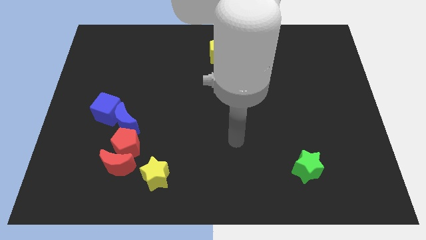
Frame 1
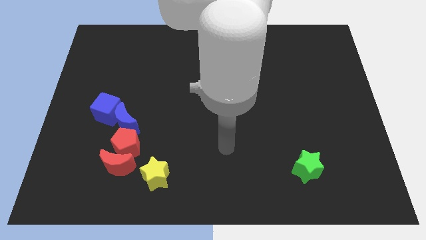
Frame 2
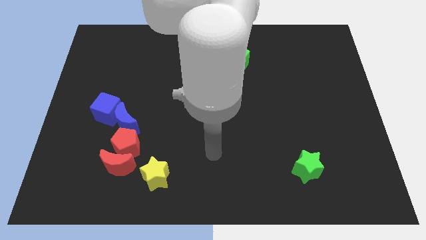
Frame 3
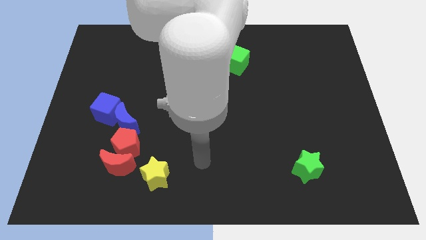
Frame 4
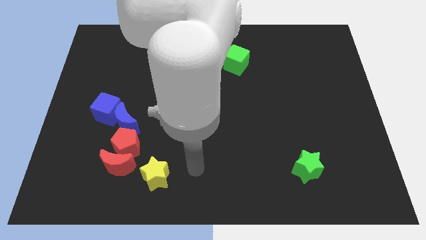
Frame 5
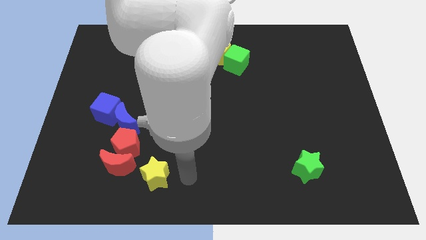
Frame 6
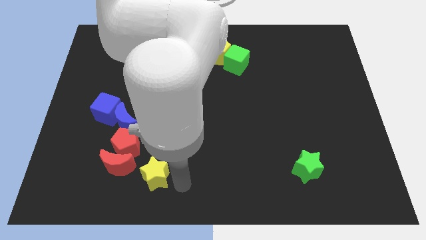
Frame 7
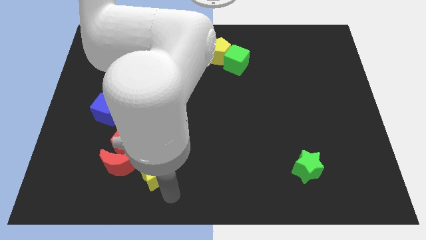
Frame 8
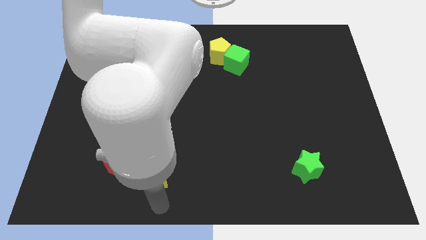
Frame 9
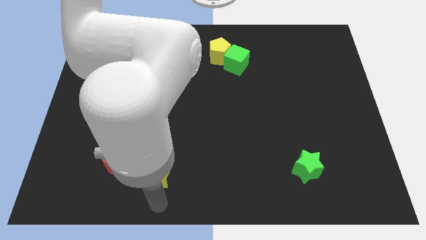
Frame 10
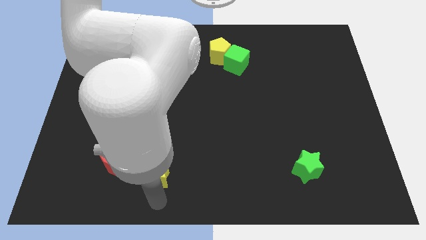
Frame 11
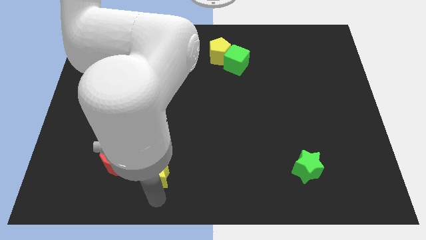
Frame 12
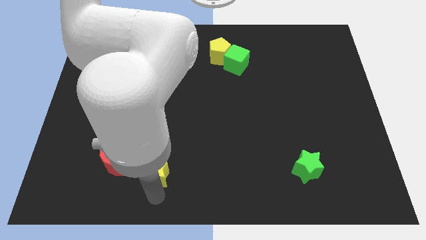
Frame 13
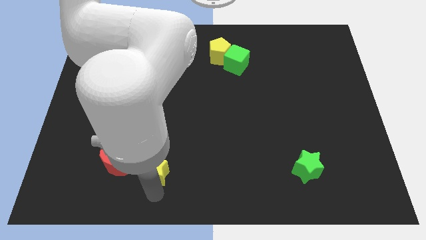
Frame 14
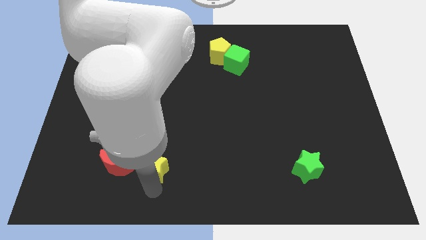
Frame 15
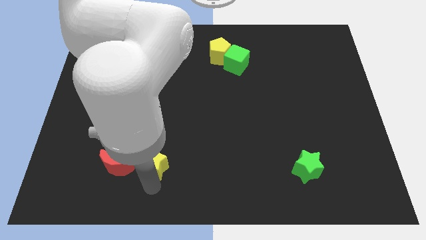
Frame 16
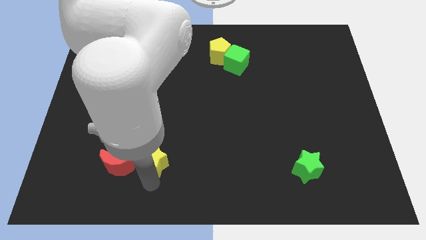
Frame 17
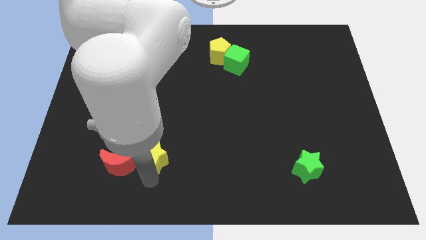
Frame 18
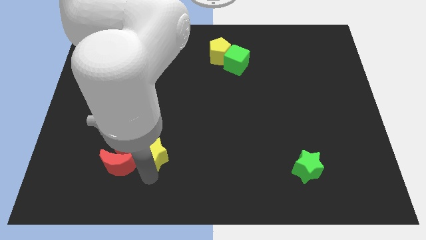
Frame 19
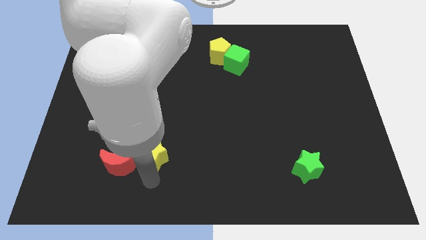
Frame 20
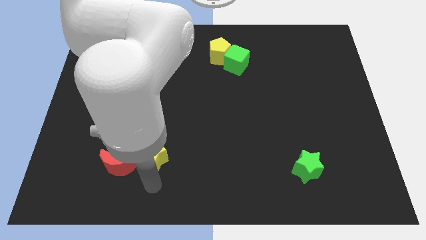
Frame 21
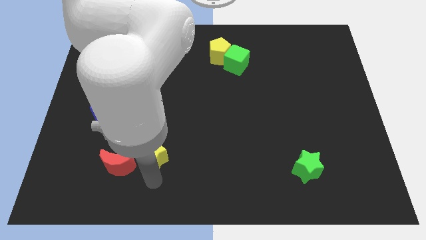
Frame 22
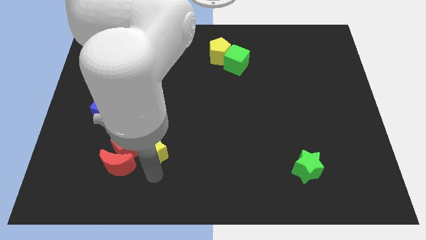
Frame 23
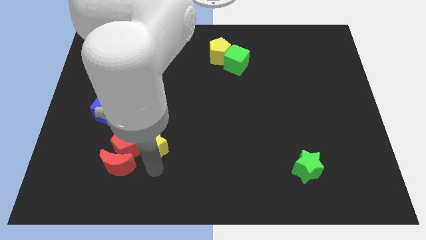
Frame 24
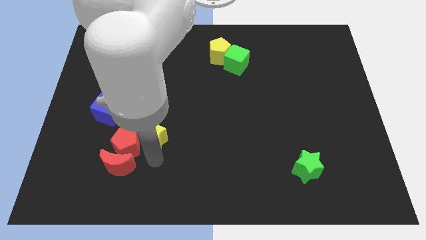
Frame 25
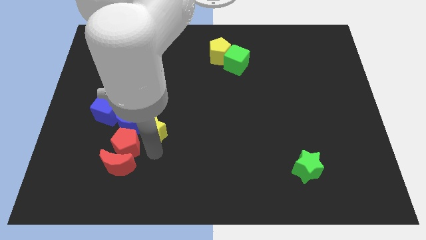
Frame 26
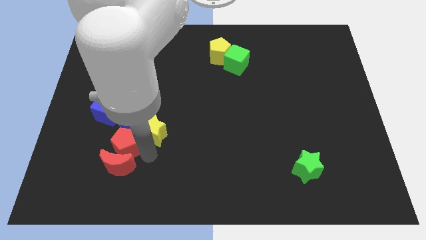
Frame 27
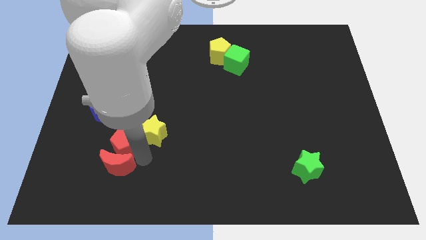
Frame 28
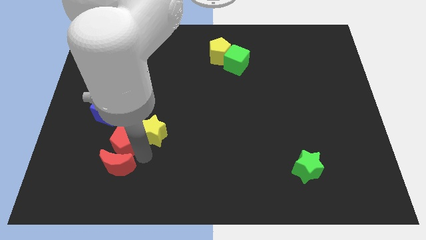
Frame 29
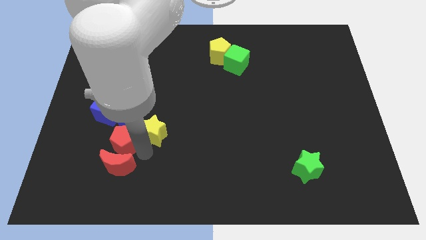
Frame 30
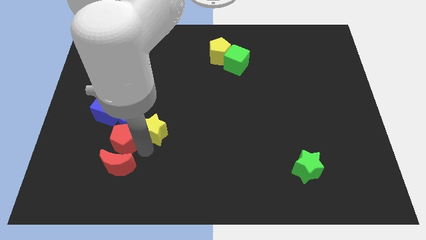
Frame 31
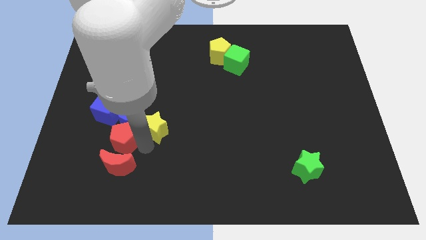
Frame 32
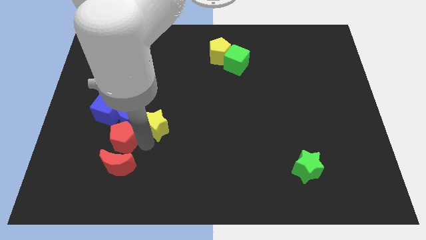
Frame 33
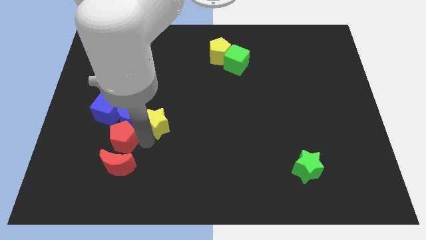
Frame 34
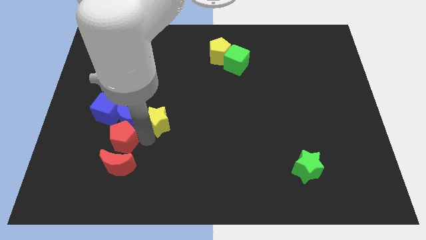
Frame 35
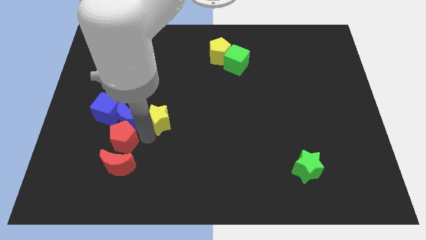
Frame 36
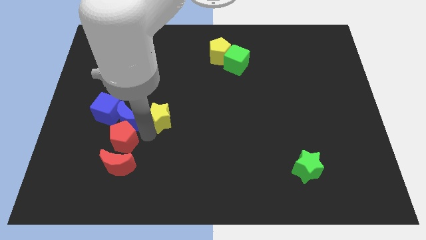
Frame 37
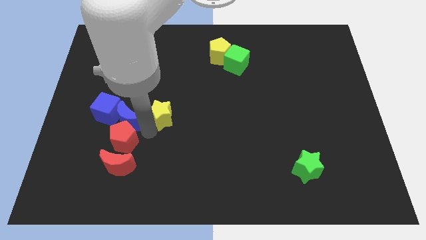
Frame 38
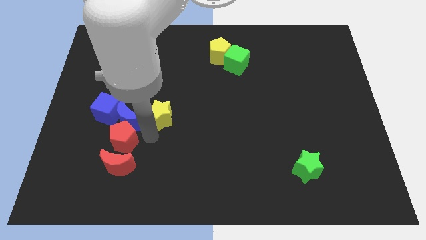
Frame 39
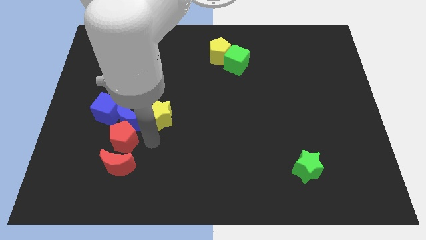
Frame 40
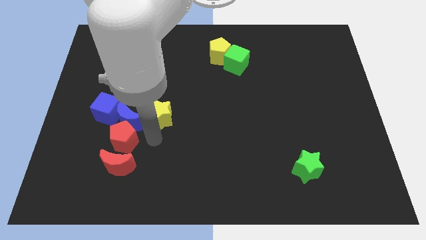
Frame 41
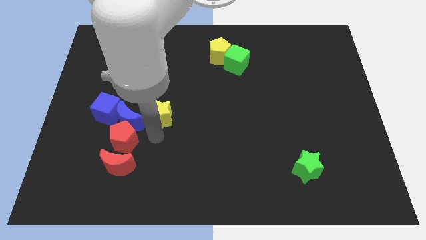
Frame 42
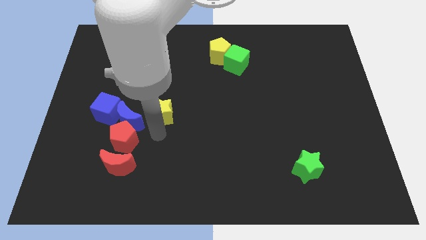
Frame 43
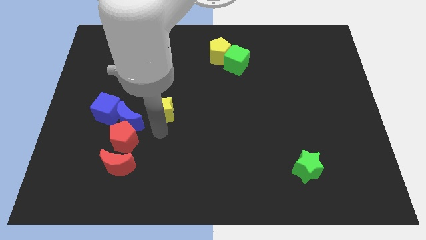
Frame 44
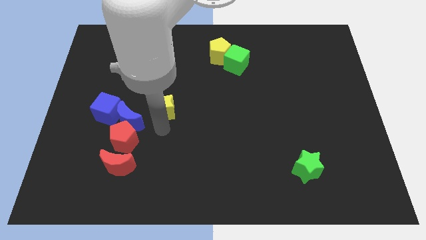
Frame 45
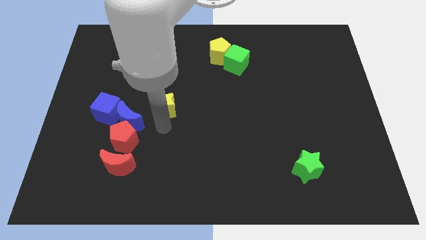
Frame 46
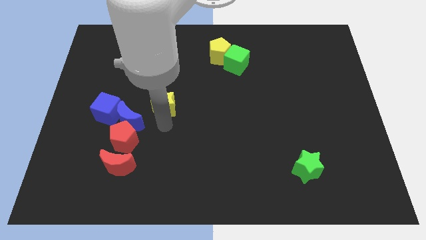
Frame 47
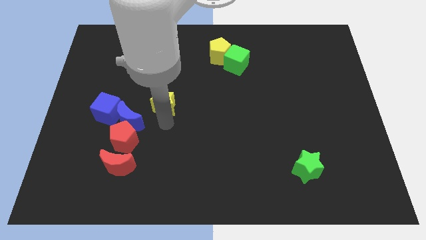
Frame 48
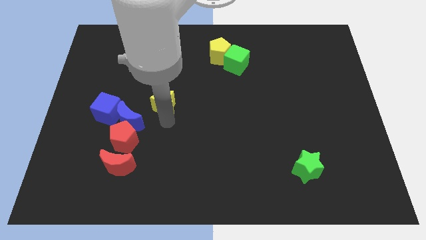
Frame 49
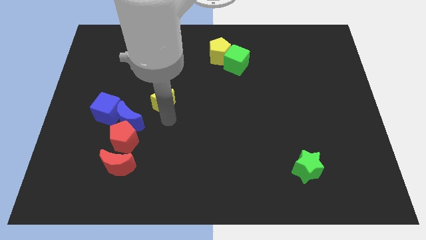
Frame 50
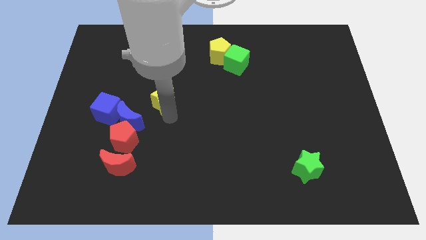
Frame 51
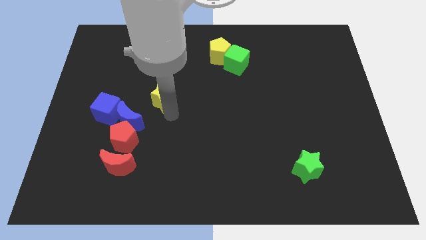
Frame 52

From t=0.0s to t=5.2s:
slide the yellow star up

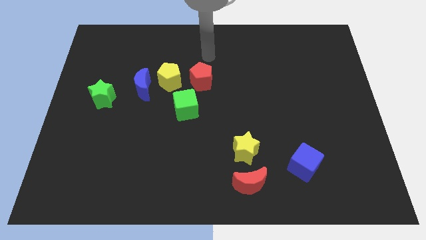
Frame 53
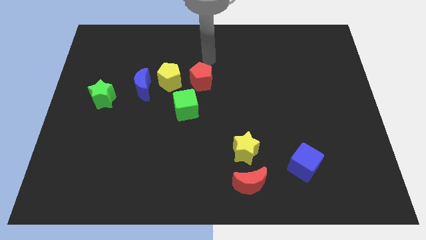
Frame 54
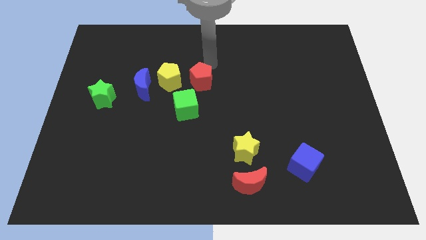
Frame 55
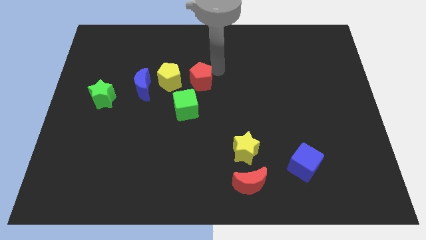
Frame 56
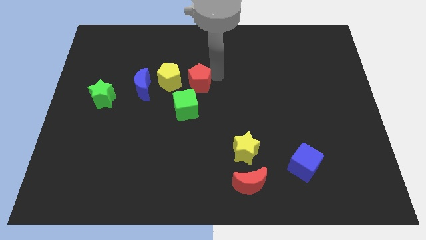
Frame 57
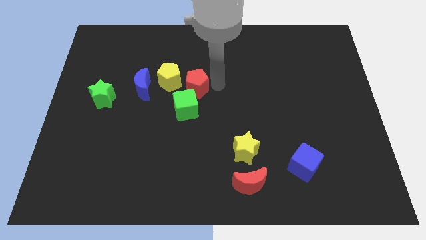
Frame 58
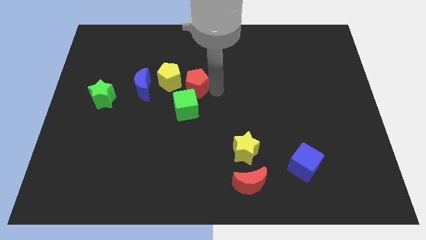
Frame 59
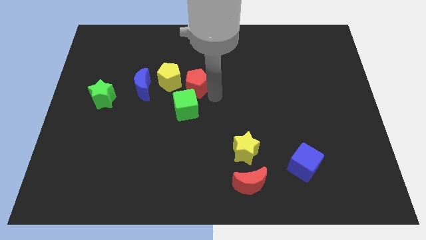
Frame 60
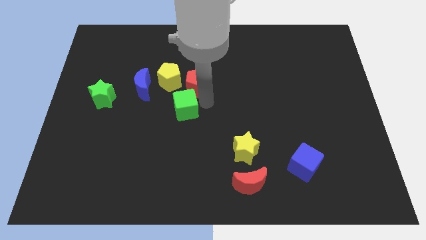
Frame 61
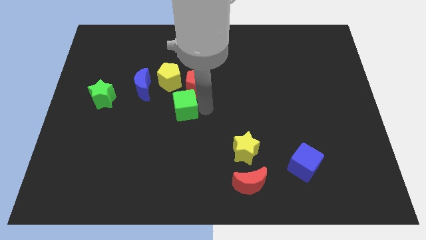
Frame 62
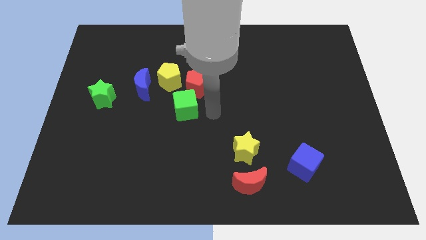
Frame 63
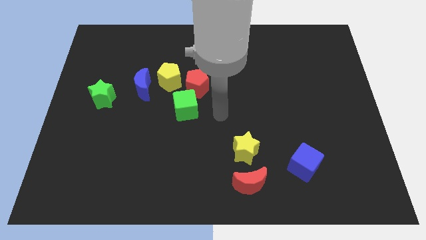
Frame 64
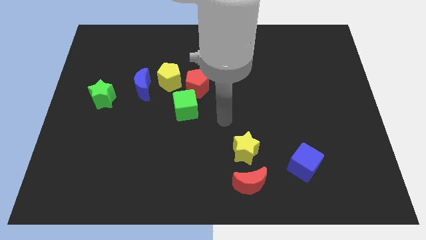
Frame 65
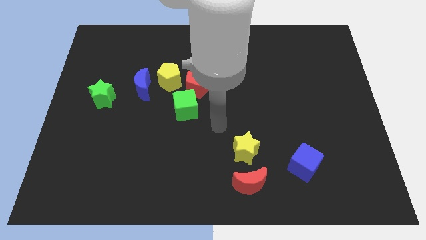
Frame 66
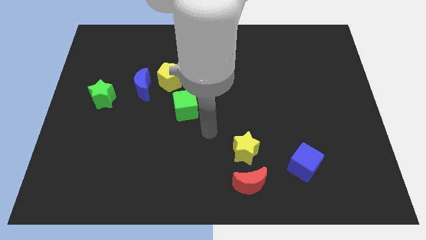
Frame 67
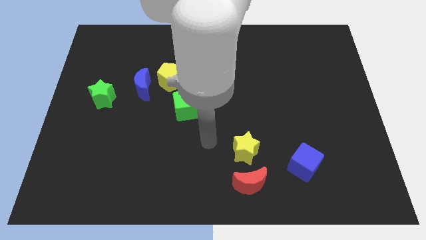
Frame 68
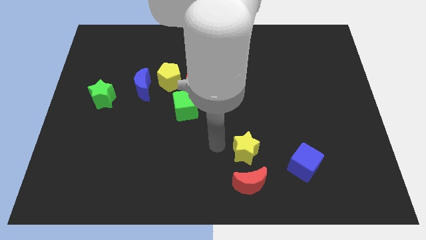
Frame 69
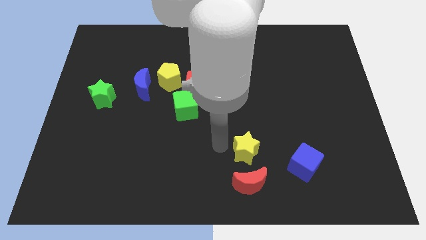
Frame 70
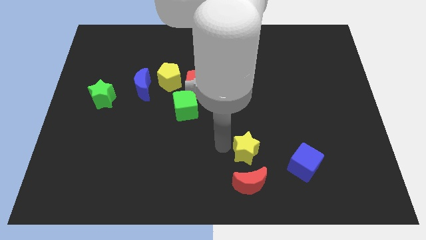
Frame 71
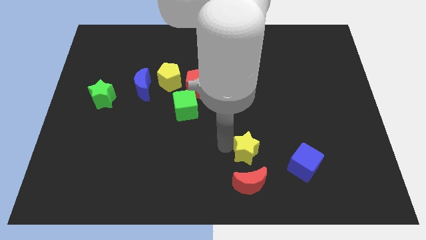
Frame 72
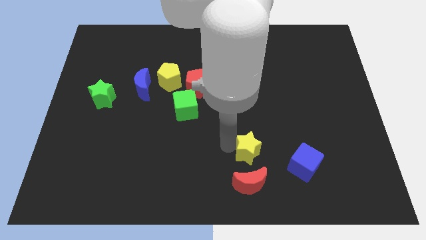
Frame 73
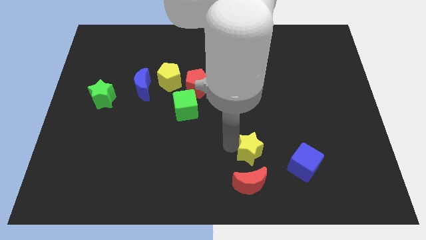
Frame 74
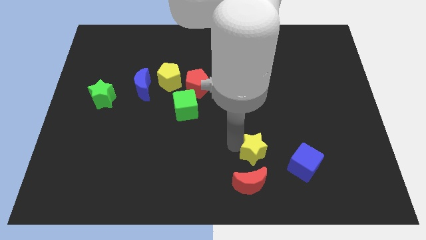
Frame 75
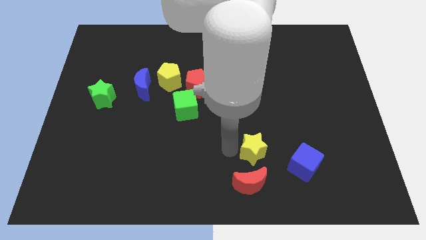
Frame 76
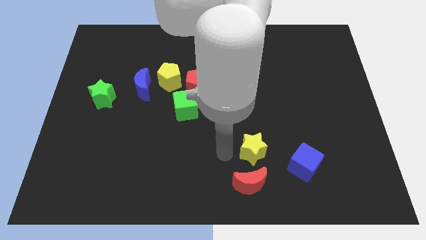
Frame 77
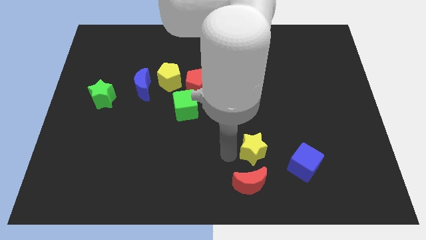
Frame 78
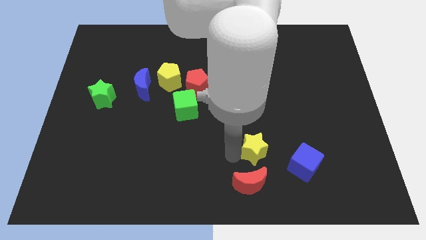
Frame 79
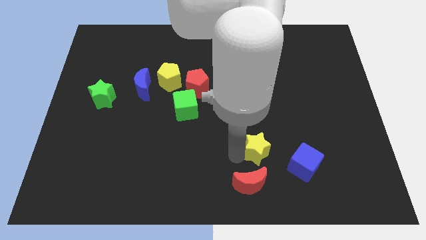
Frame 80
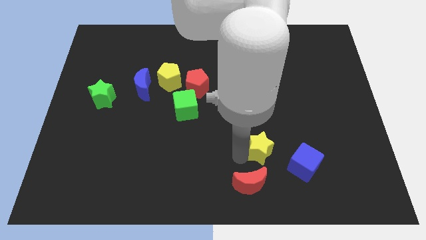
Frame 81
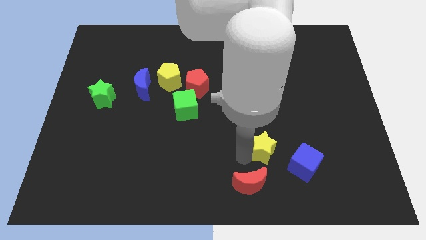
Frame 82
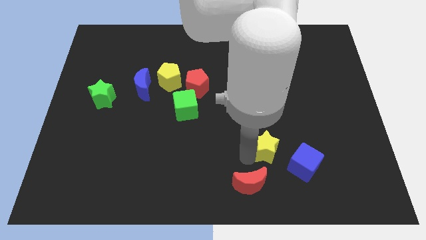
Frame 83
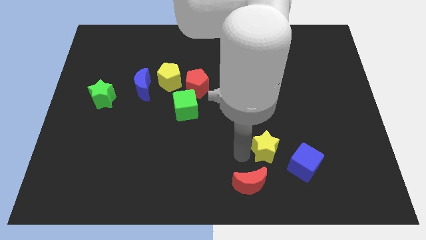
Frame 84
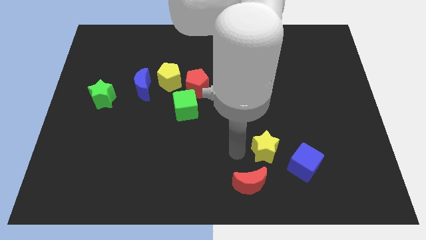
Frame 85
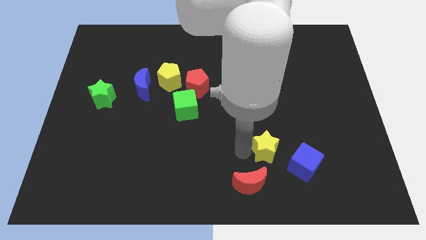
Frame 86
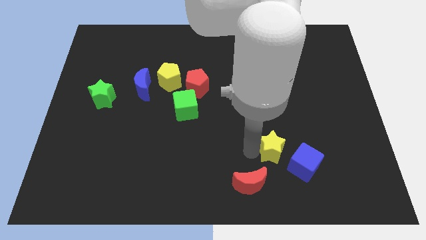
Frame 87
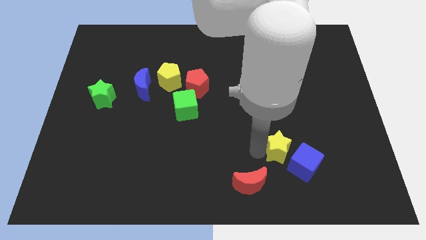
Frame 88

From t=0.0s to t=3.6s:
slightly move the yellow star right
